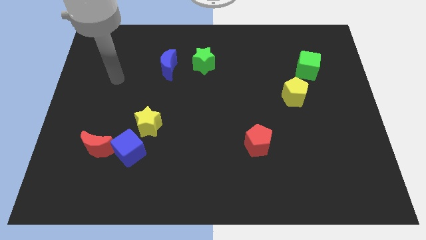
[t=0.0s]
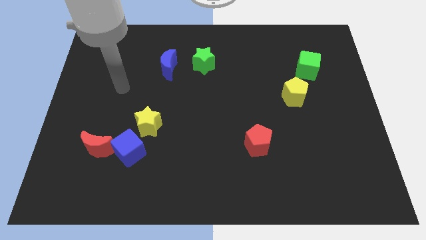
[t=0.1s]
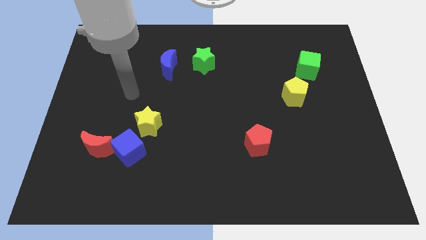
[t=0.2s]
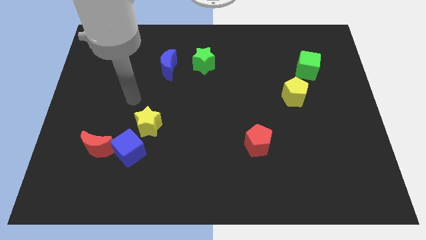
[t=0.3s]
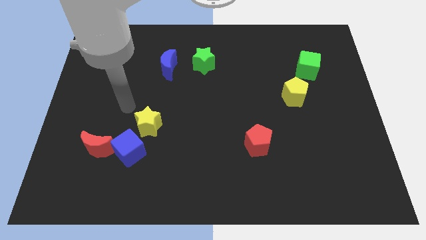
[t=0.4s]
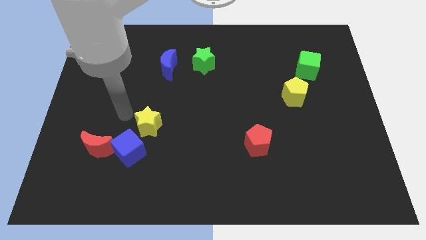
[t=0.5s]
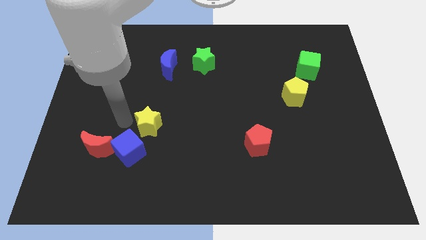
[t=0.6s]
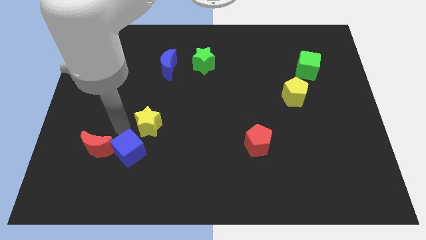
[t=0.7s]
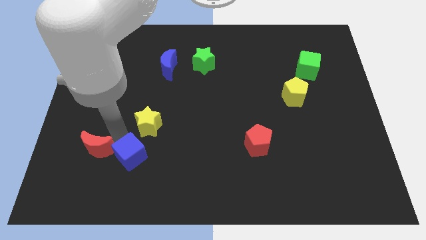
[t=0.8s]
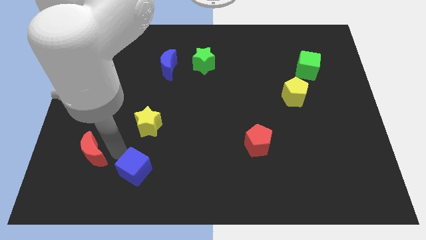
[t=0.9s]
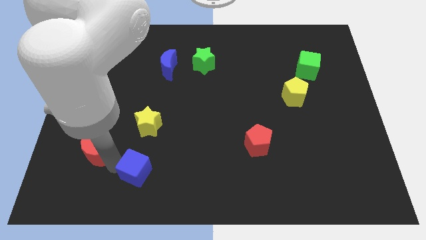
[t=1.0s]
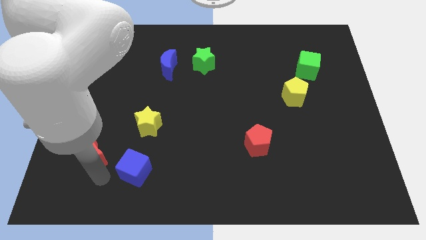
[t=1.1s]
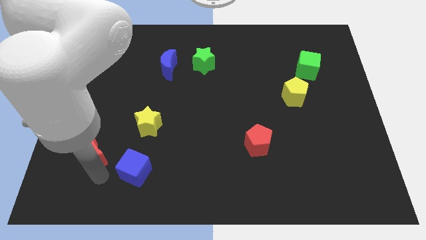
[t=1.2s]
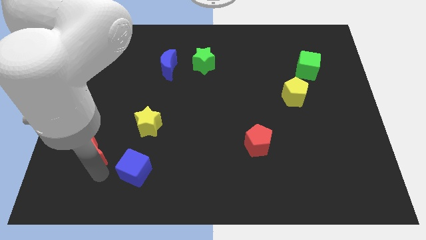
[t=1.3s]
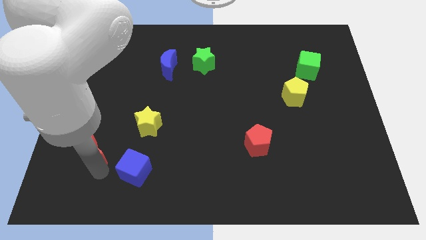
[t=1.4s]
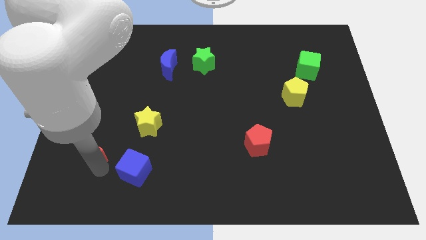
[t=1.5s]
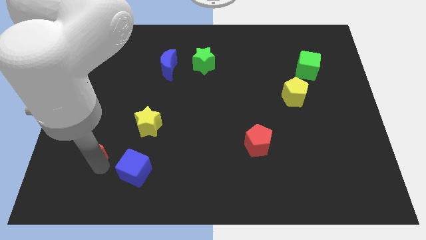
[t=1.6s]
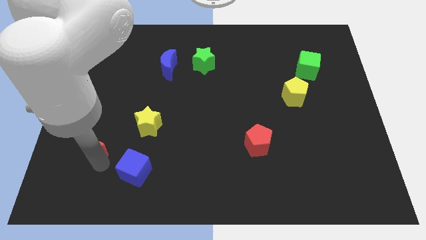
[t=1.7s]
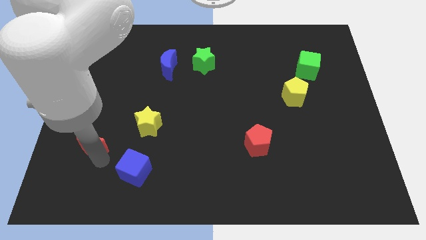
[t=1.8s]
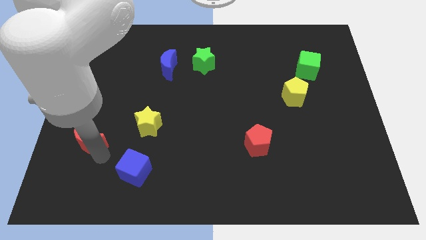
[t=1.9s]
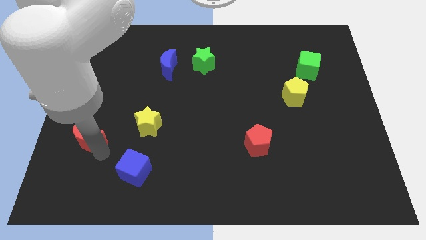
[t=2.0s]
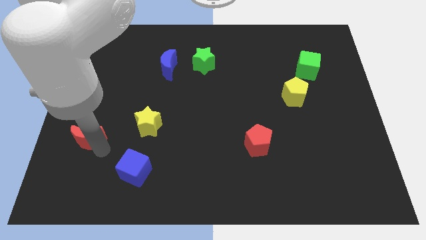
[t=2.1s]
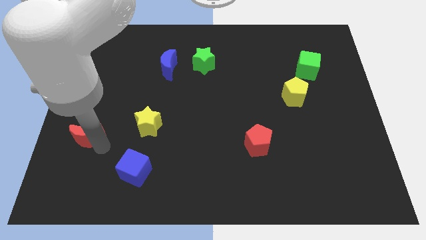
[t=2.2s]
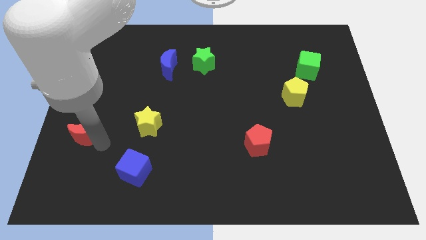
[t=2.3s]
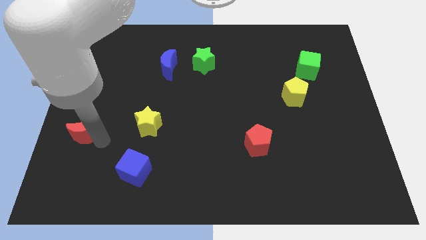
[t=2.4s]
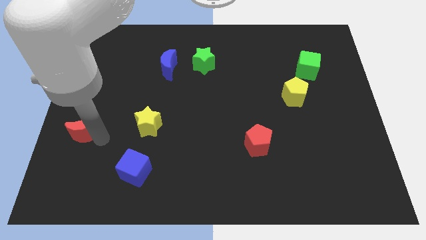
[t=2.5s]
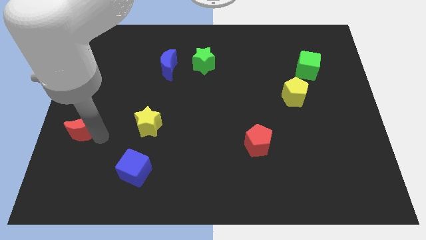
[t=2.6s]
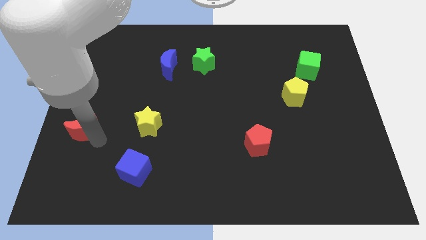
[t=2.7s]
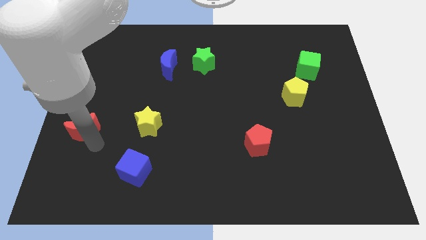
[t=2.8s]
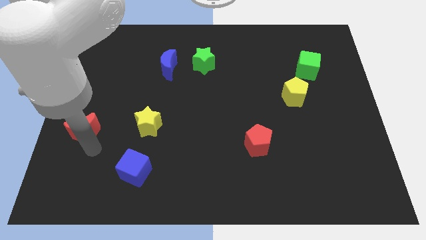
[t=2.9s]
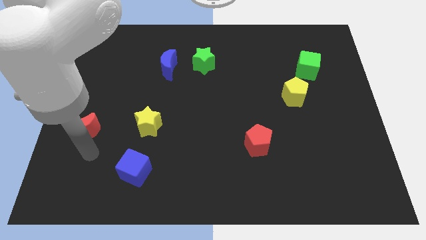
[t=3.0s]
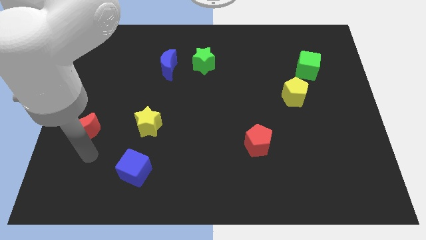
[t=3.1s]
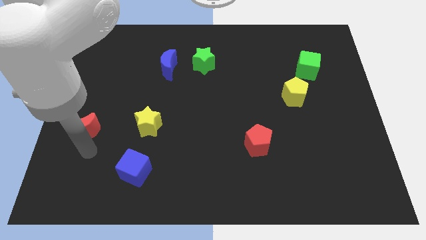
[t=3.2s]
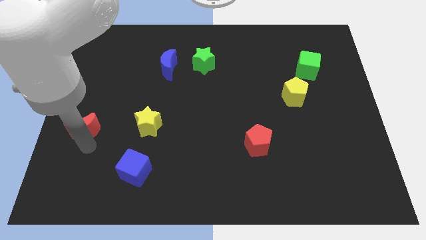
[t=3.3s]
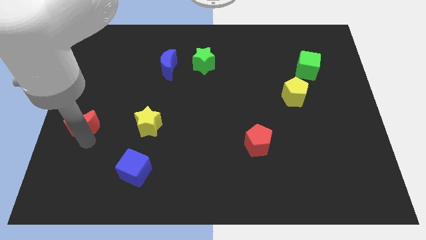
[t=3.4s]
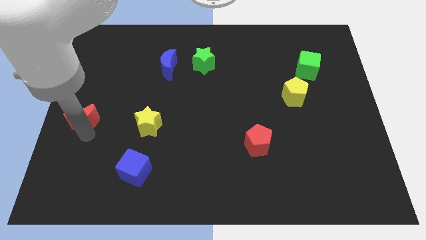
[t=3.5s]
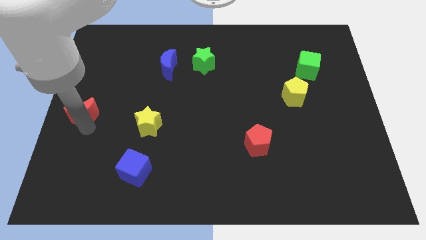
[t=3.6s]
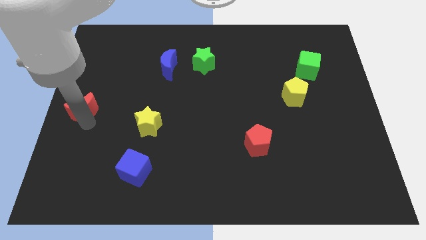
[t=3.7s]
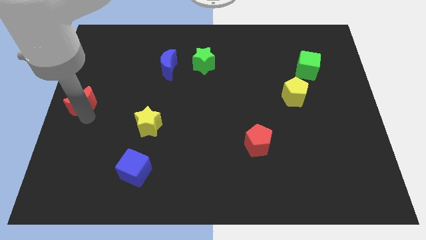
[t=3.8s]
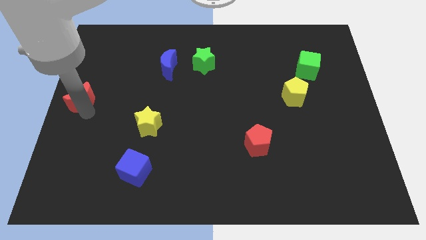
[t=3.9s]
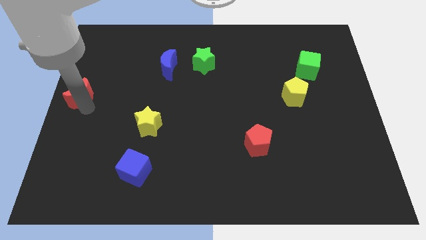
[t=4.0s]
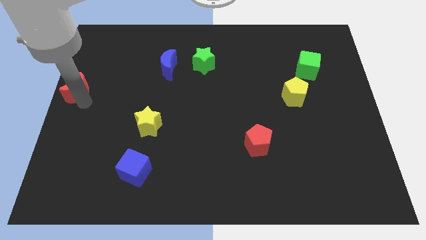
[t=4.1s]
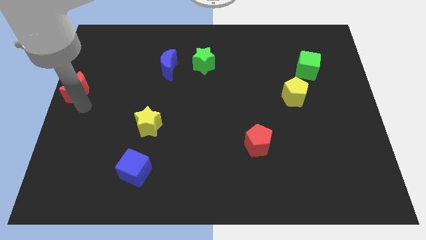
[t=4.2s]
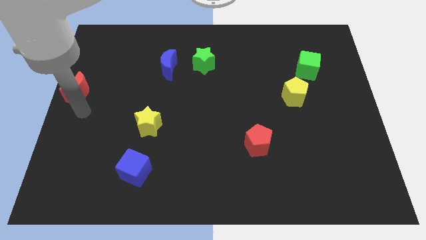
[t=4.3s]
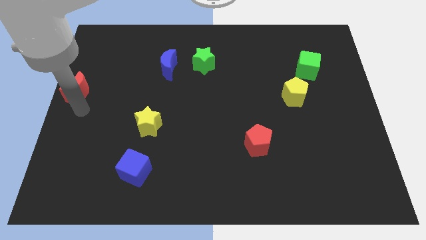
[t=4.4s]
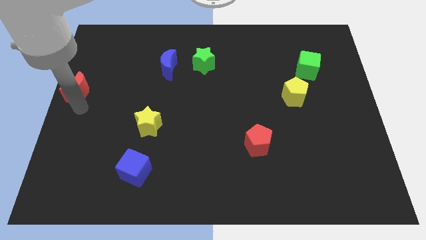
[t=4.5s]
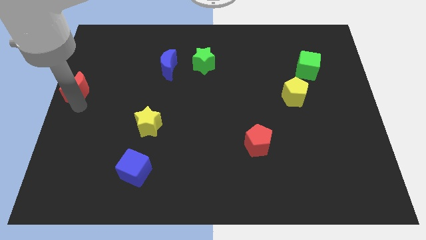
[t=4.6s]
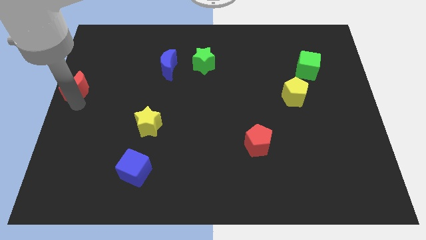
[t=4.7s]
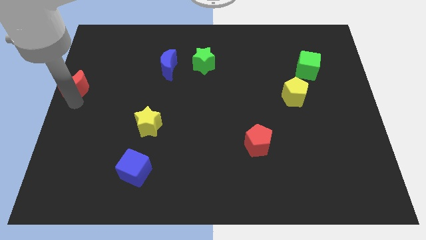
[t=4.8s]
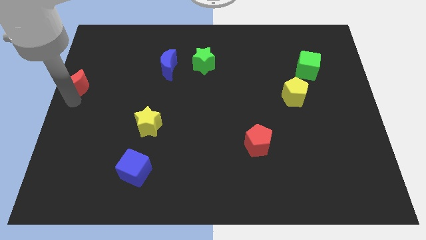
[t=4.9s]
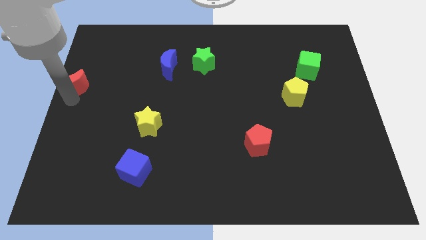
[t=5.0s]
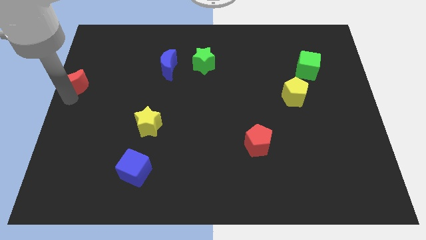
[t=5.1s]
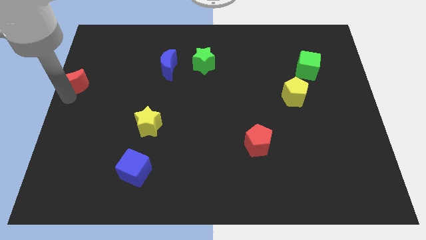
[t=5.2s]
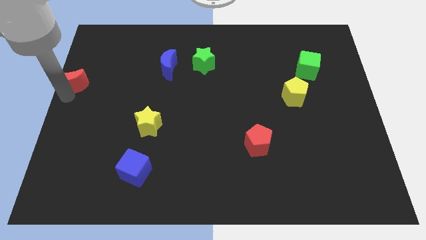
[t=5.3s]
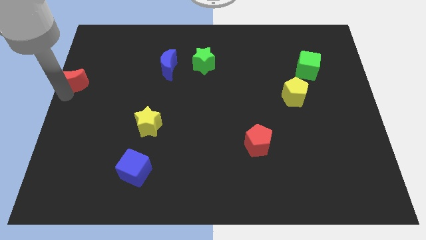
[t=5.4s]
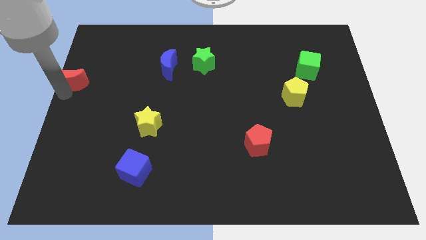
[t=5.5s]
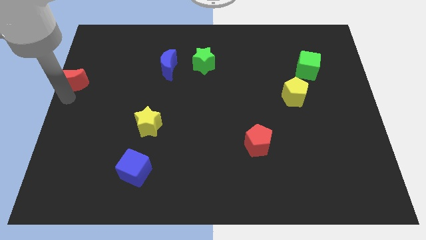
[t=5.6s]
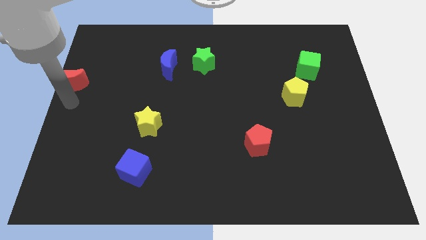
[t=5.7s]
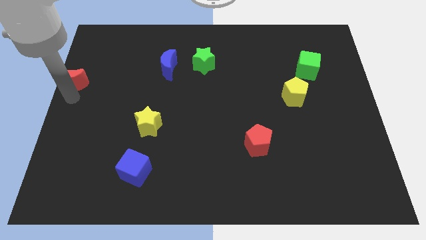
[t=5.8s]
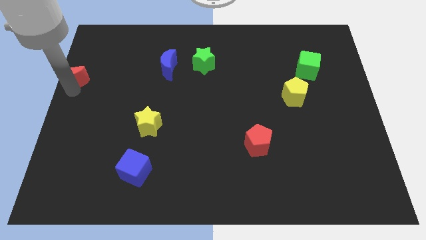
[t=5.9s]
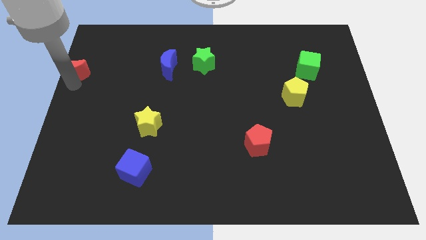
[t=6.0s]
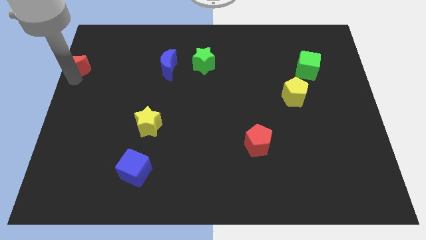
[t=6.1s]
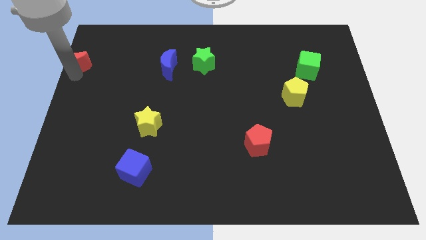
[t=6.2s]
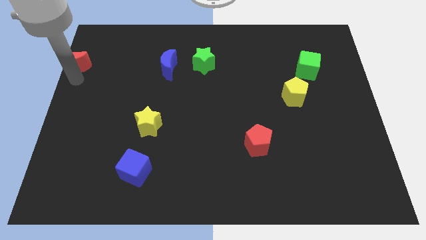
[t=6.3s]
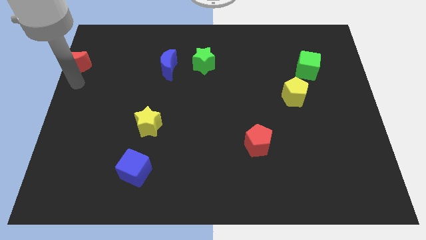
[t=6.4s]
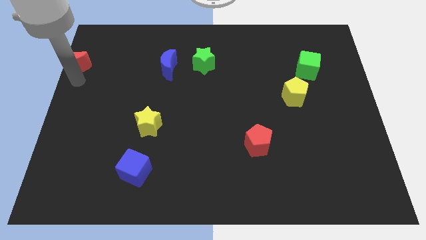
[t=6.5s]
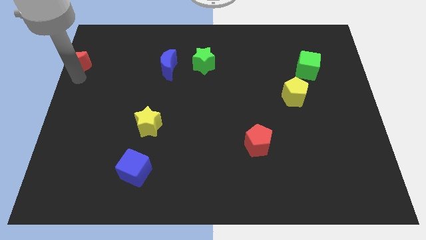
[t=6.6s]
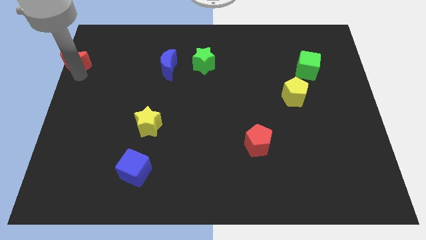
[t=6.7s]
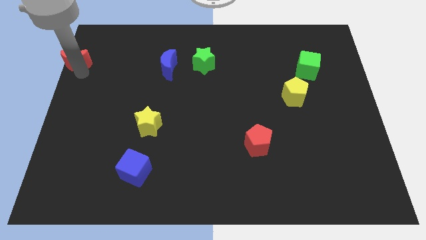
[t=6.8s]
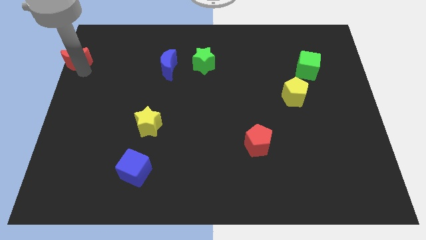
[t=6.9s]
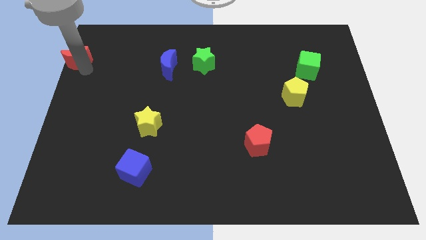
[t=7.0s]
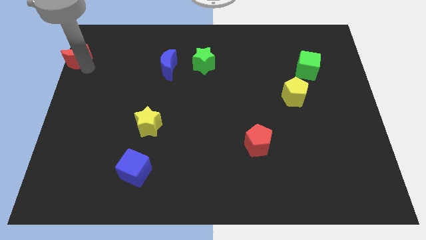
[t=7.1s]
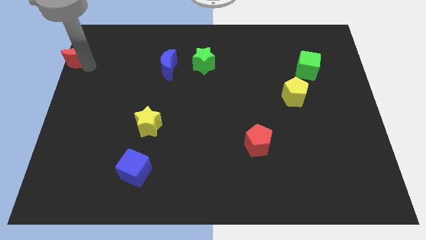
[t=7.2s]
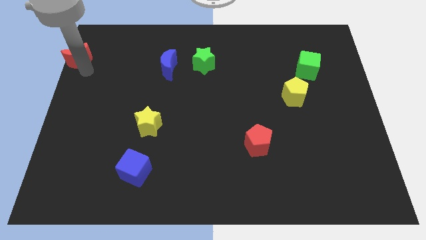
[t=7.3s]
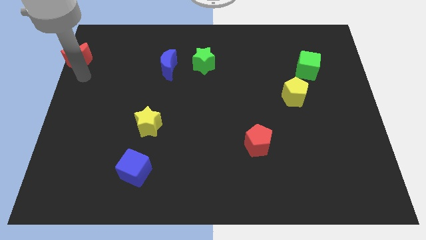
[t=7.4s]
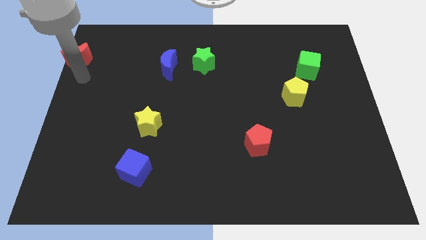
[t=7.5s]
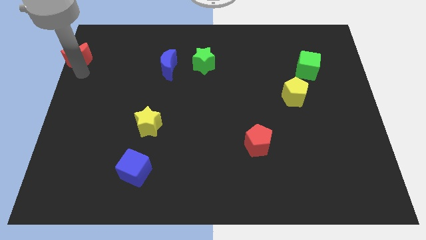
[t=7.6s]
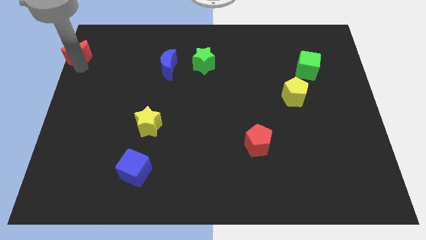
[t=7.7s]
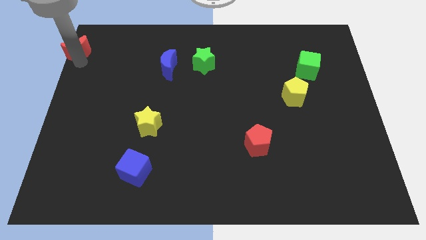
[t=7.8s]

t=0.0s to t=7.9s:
move the red moon to the top left of the board
